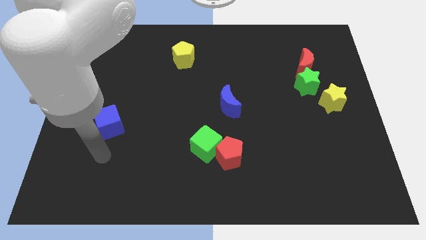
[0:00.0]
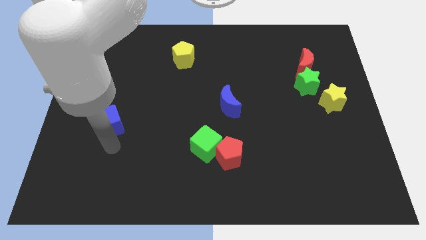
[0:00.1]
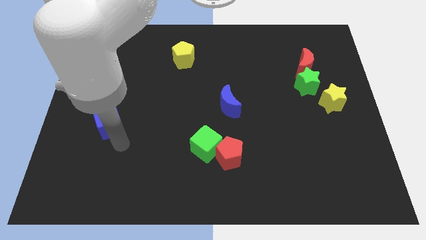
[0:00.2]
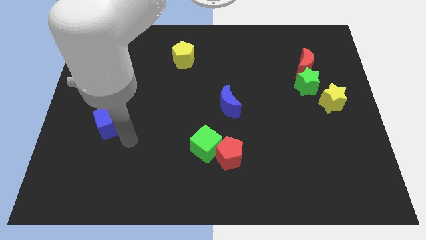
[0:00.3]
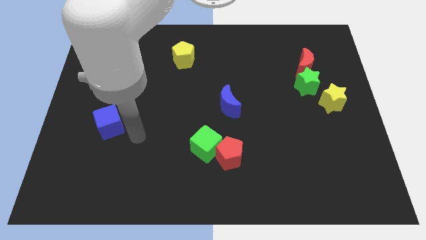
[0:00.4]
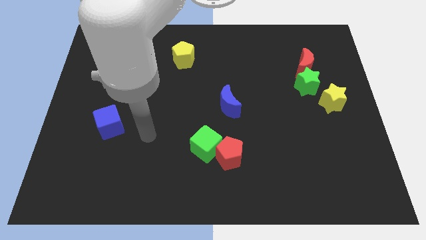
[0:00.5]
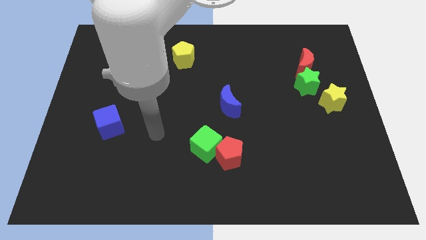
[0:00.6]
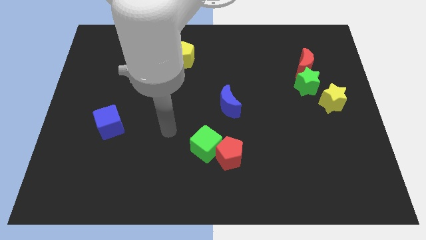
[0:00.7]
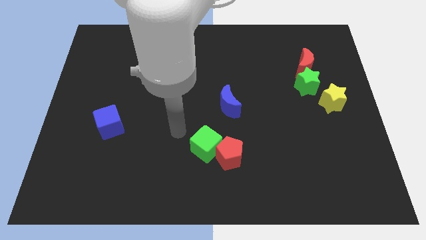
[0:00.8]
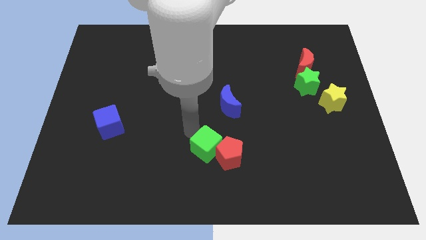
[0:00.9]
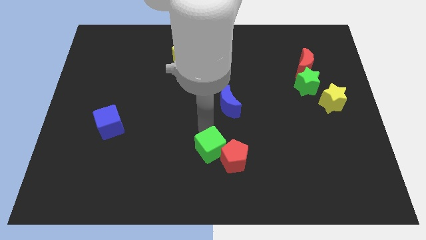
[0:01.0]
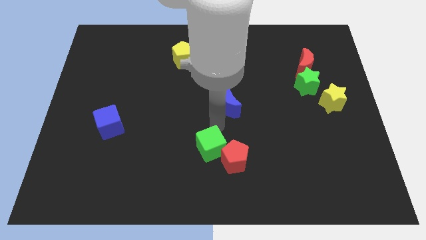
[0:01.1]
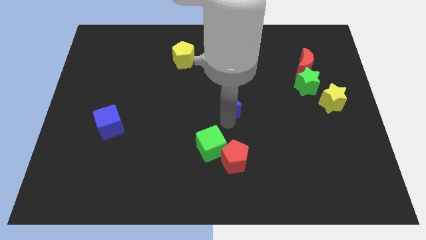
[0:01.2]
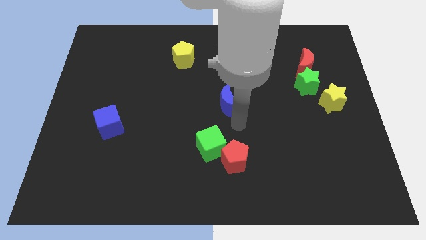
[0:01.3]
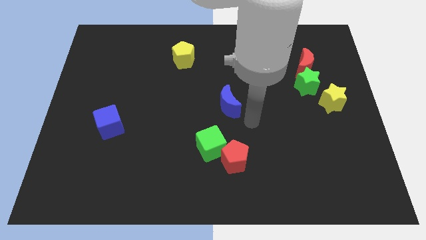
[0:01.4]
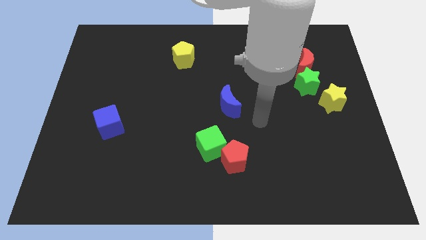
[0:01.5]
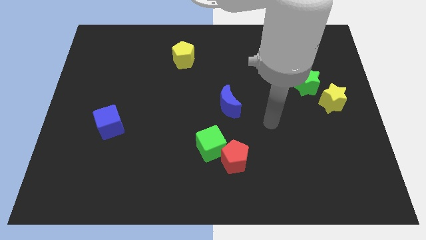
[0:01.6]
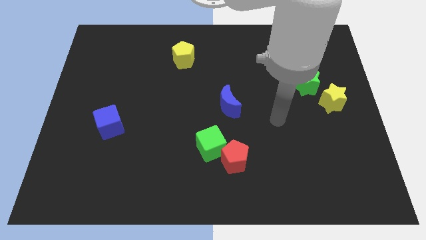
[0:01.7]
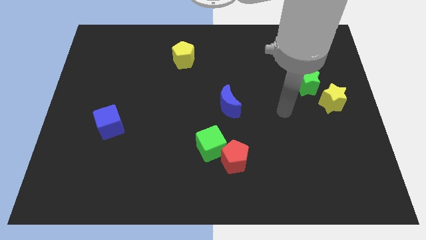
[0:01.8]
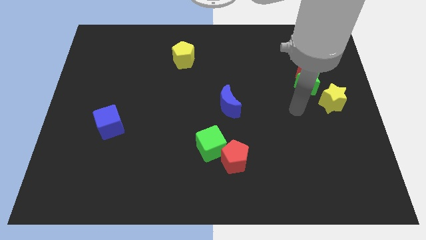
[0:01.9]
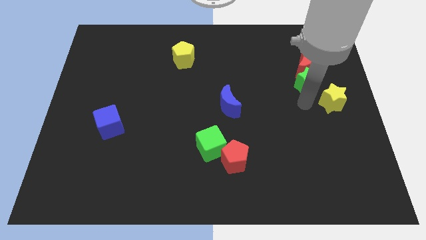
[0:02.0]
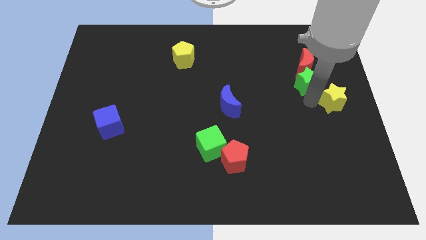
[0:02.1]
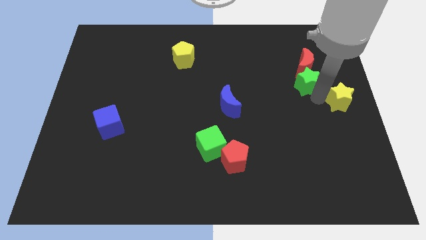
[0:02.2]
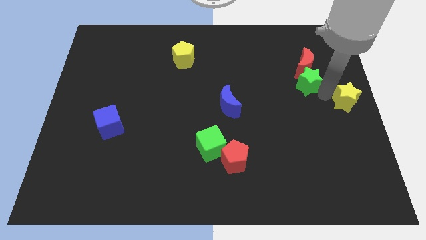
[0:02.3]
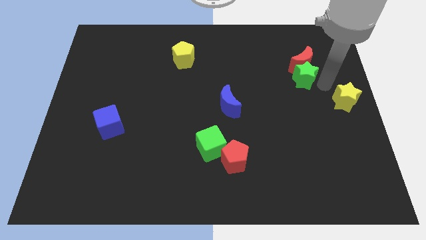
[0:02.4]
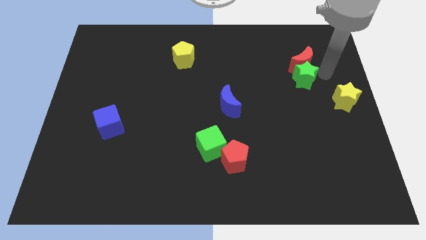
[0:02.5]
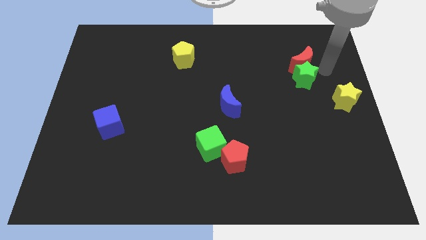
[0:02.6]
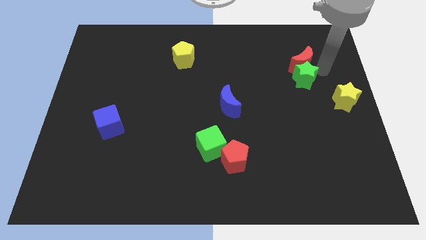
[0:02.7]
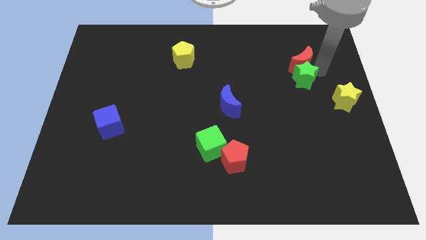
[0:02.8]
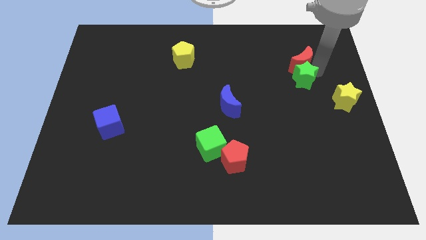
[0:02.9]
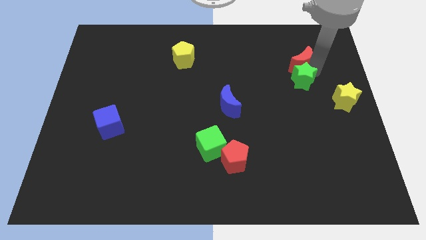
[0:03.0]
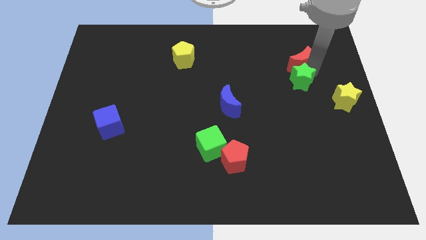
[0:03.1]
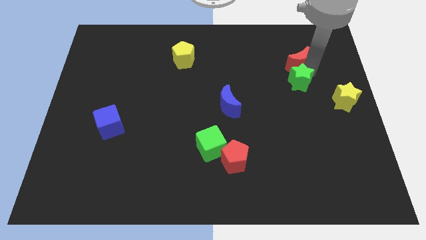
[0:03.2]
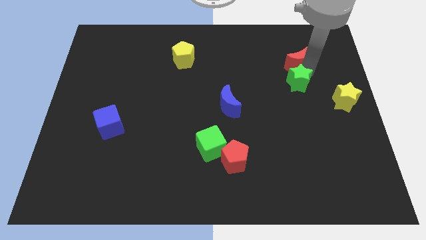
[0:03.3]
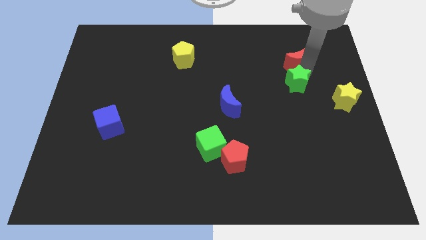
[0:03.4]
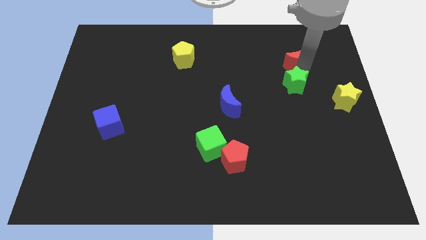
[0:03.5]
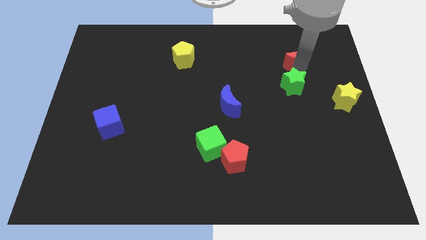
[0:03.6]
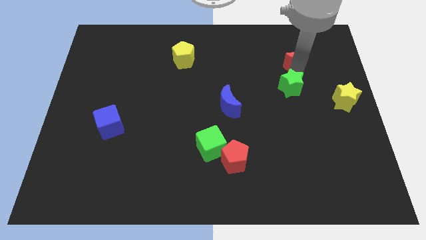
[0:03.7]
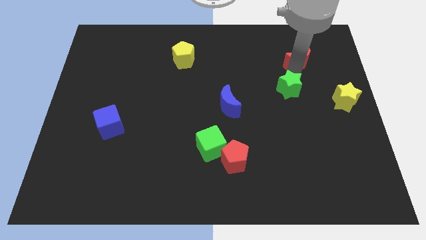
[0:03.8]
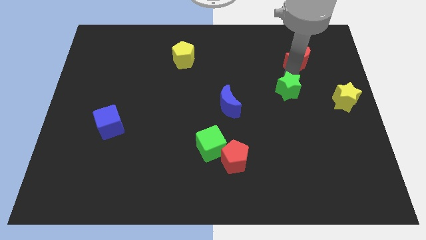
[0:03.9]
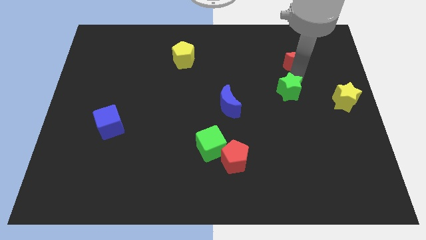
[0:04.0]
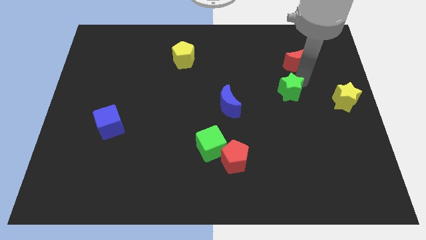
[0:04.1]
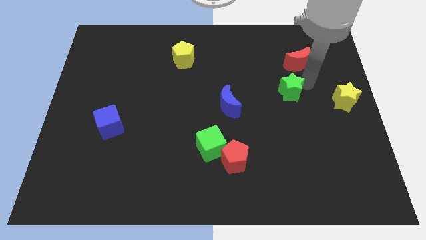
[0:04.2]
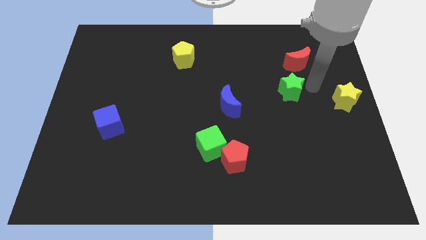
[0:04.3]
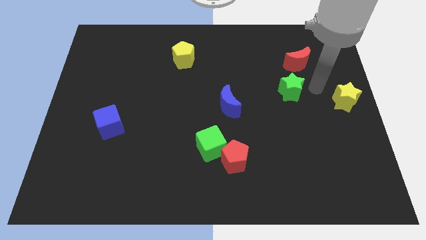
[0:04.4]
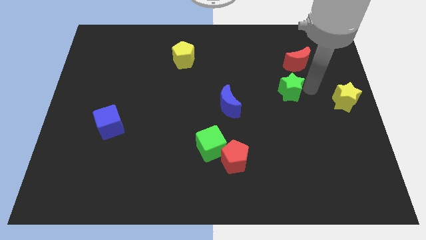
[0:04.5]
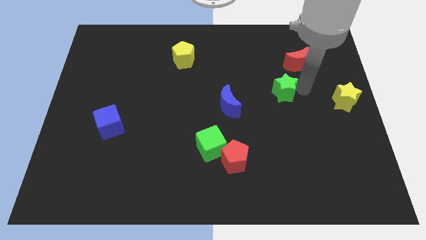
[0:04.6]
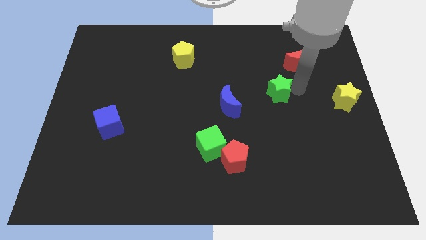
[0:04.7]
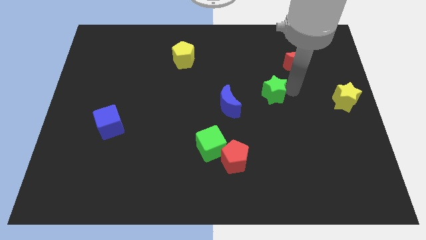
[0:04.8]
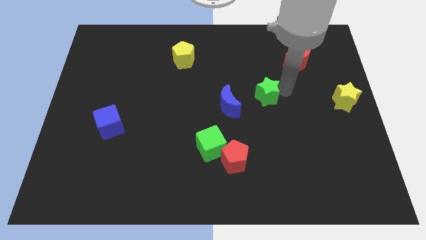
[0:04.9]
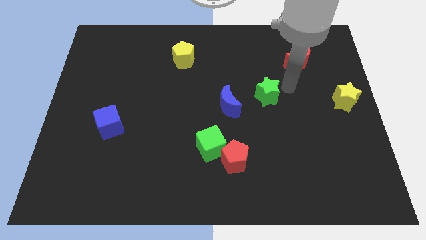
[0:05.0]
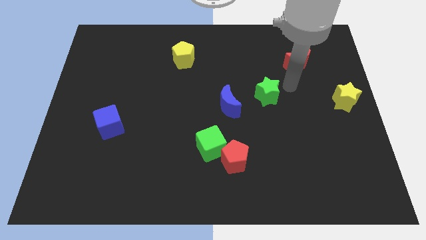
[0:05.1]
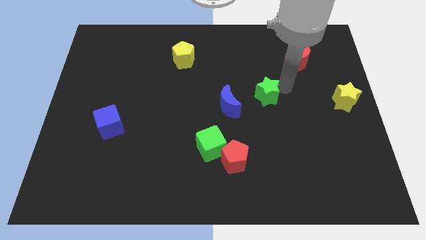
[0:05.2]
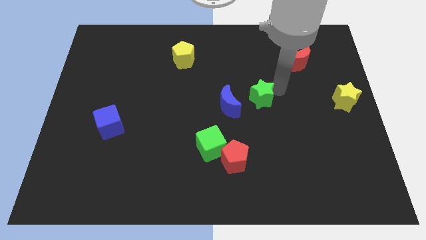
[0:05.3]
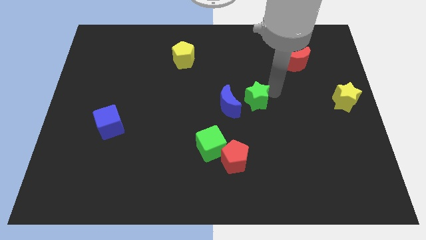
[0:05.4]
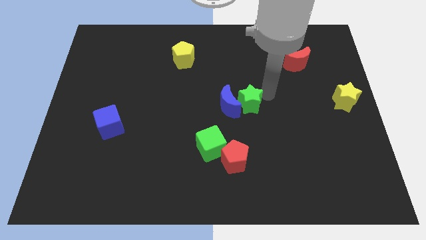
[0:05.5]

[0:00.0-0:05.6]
put the green star towards the blue moon
